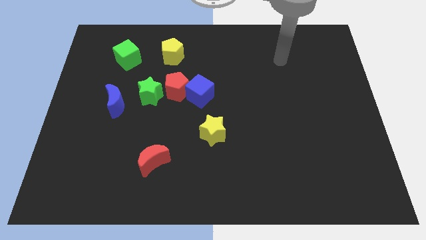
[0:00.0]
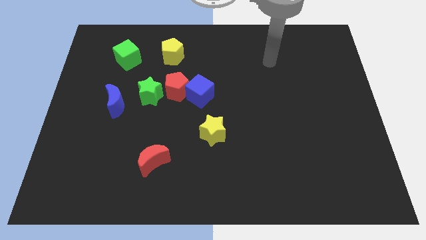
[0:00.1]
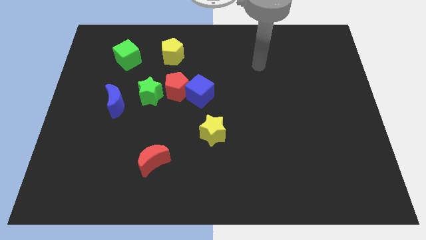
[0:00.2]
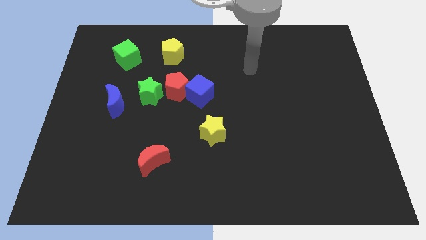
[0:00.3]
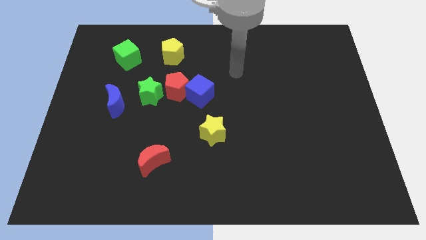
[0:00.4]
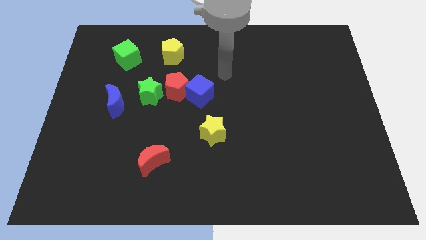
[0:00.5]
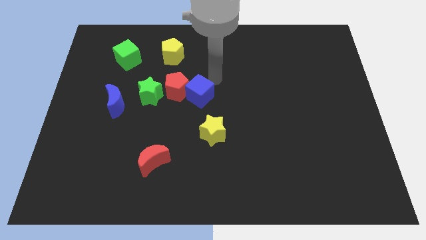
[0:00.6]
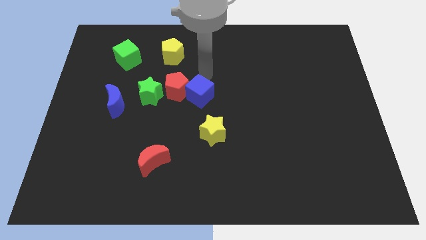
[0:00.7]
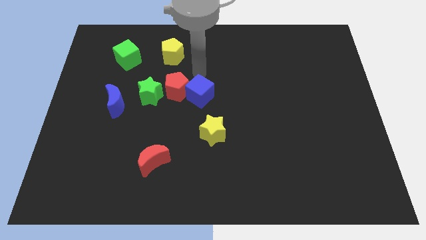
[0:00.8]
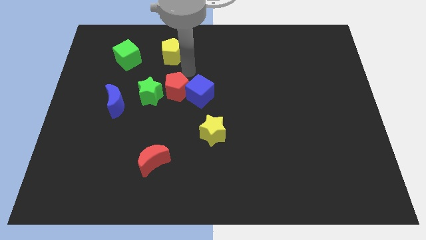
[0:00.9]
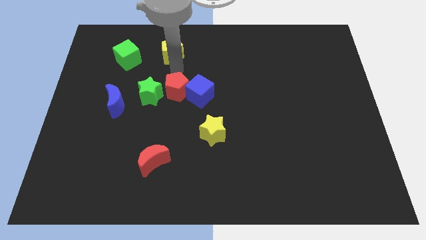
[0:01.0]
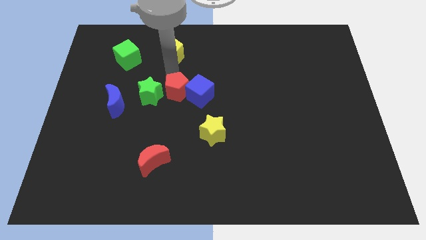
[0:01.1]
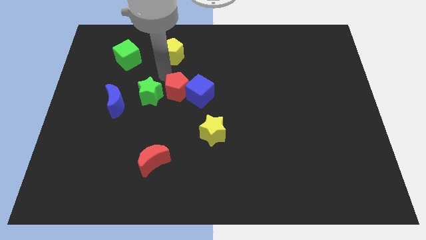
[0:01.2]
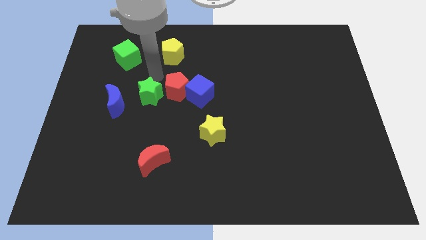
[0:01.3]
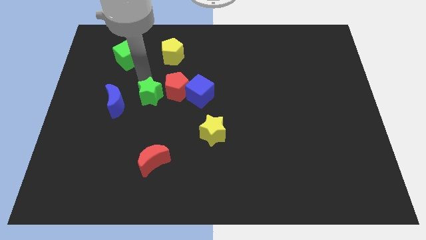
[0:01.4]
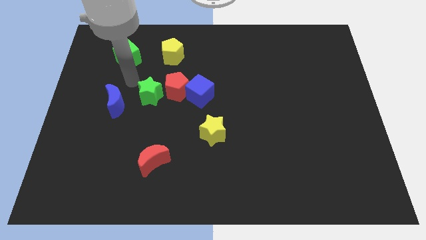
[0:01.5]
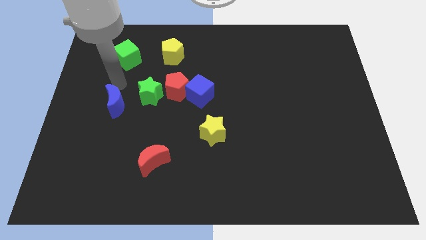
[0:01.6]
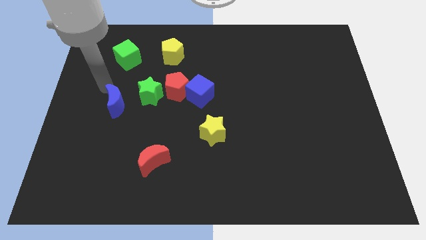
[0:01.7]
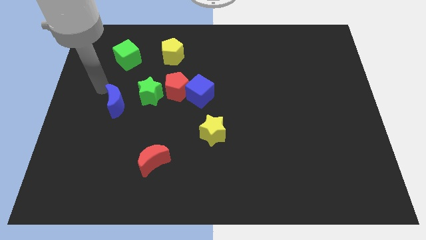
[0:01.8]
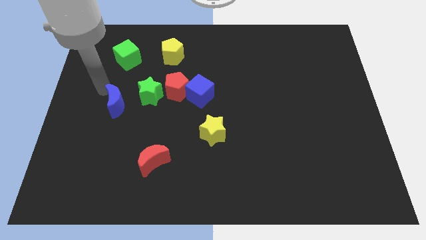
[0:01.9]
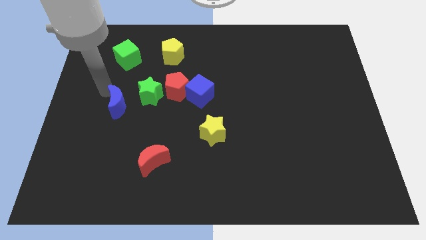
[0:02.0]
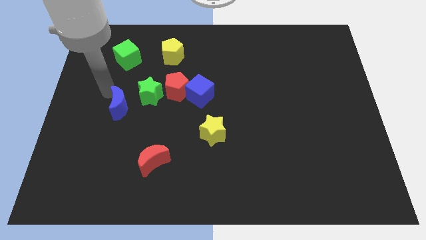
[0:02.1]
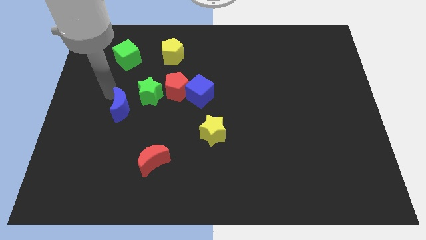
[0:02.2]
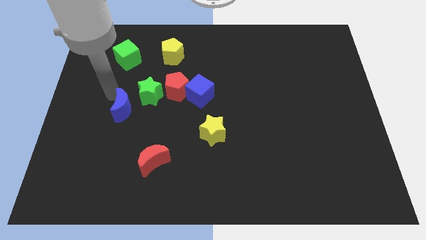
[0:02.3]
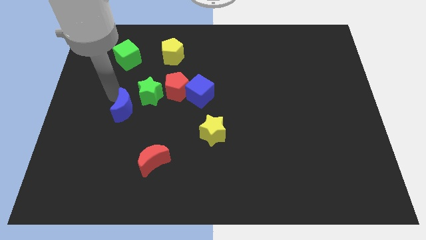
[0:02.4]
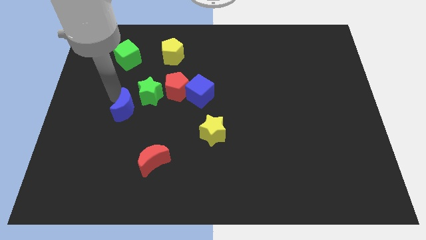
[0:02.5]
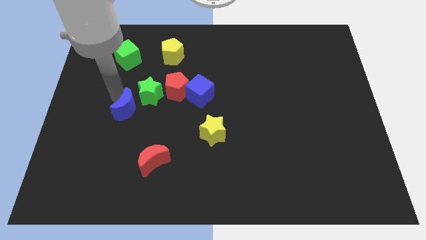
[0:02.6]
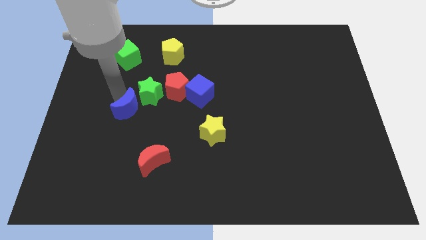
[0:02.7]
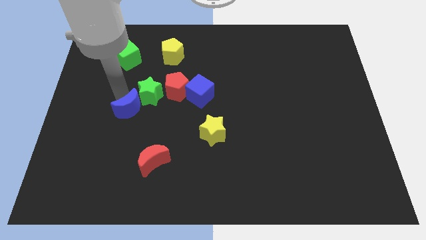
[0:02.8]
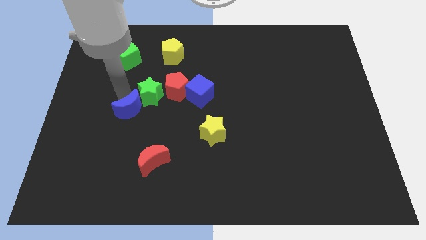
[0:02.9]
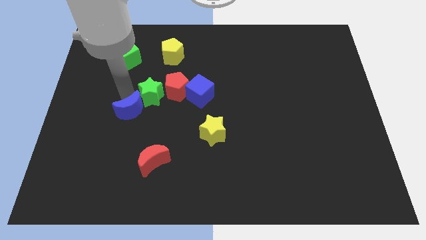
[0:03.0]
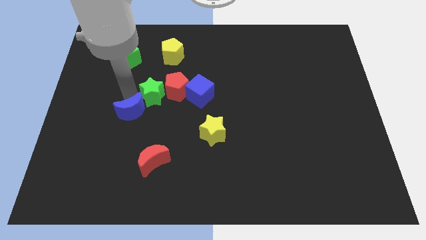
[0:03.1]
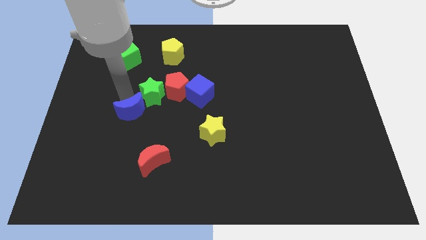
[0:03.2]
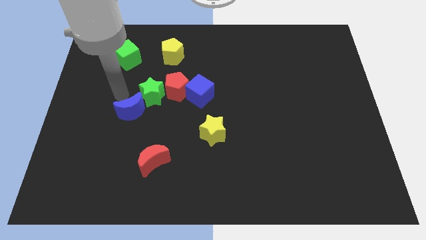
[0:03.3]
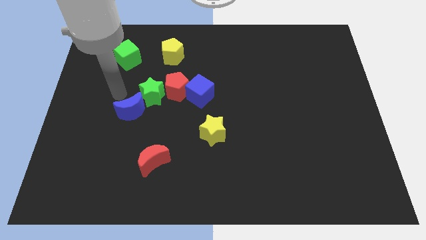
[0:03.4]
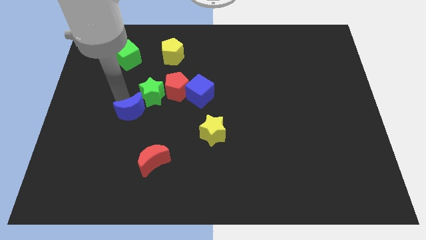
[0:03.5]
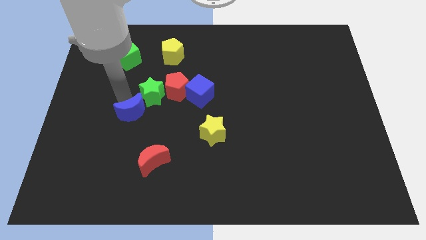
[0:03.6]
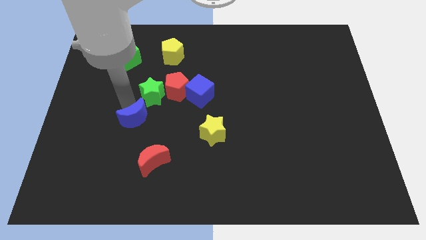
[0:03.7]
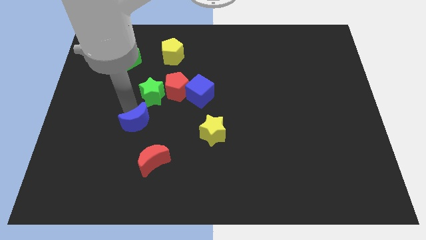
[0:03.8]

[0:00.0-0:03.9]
slightly push the blue moon downwards and to the right diagonally

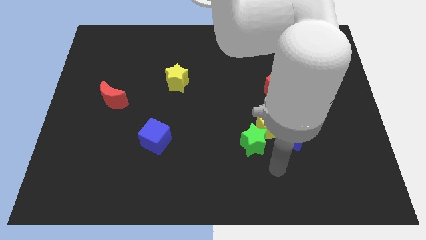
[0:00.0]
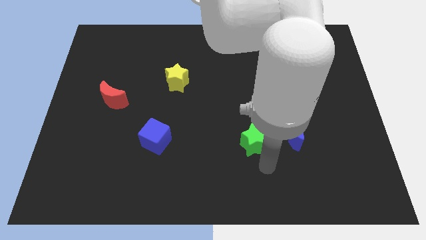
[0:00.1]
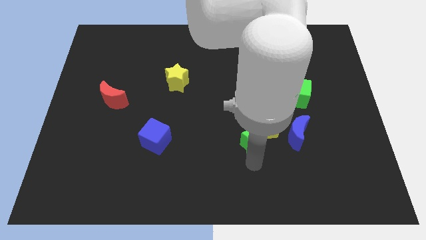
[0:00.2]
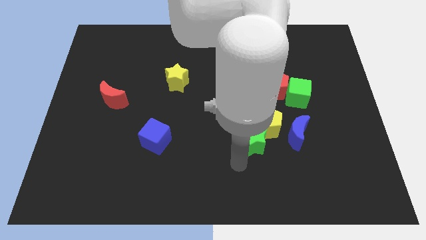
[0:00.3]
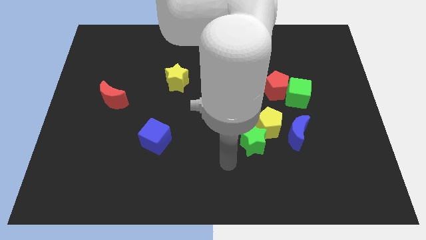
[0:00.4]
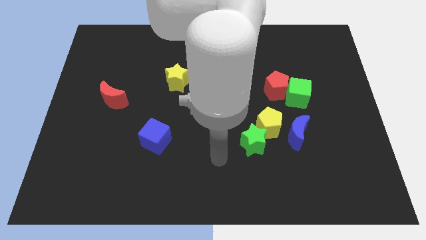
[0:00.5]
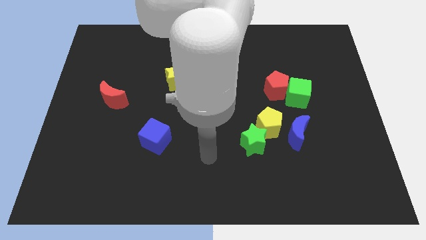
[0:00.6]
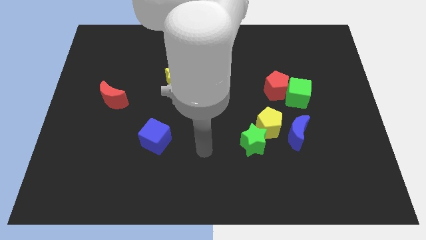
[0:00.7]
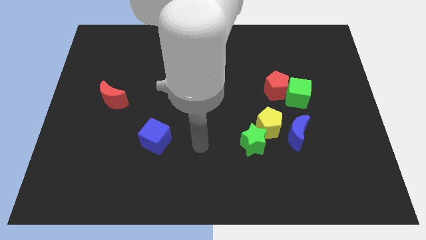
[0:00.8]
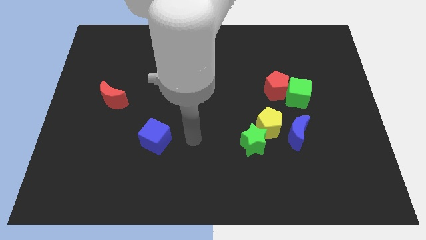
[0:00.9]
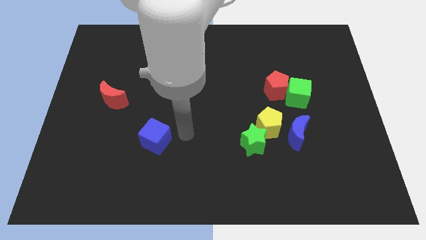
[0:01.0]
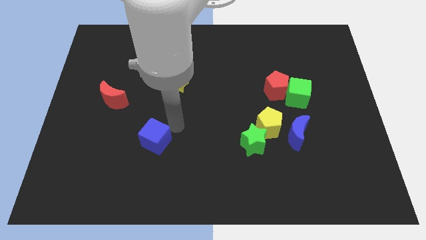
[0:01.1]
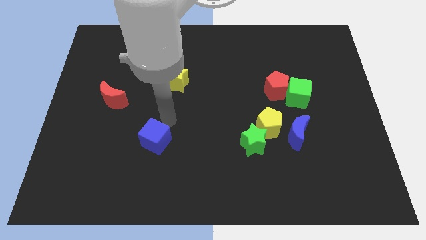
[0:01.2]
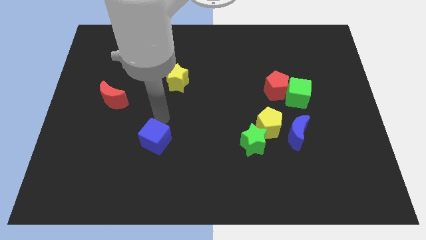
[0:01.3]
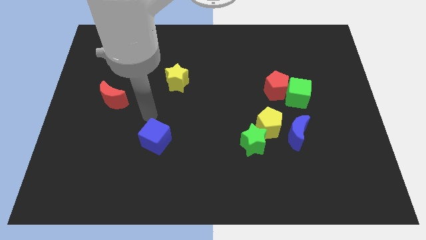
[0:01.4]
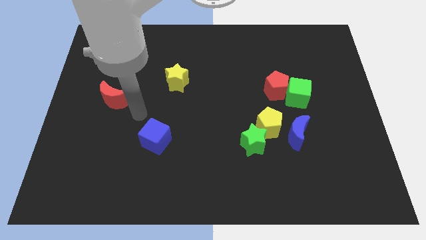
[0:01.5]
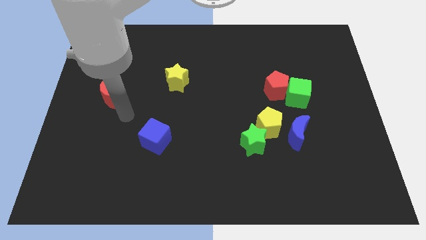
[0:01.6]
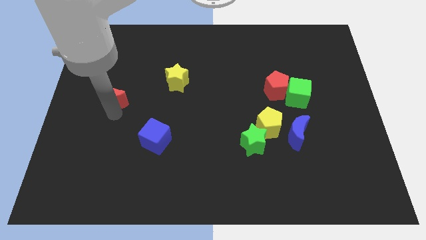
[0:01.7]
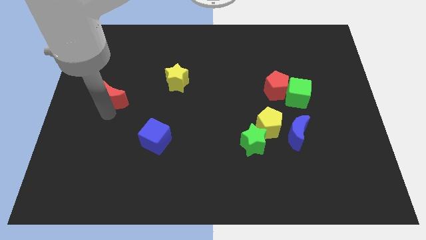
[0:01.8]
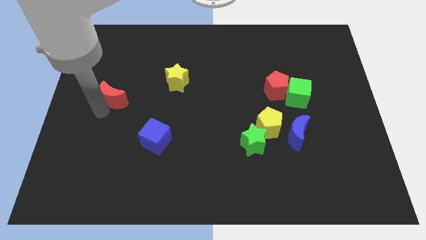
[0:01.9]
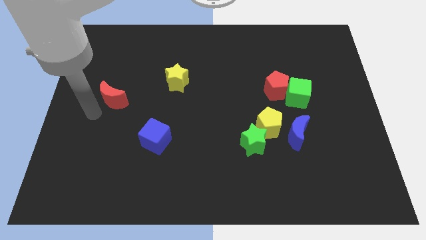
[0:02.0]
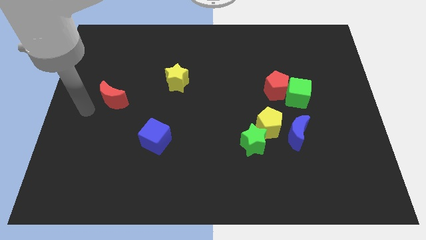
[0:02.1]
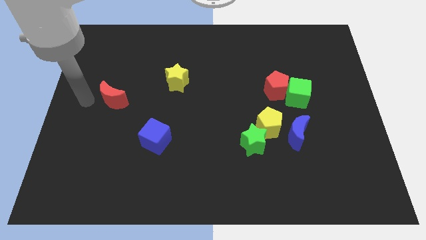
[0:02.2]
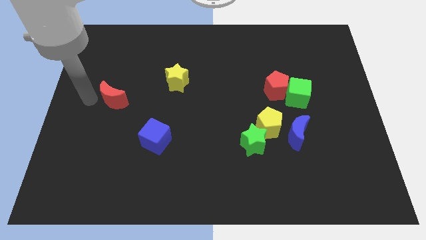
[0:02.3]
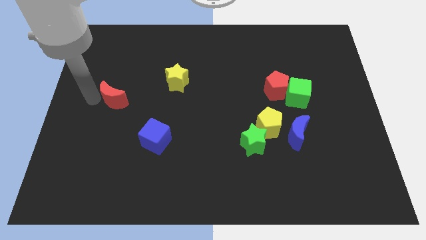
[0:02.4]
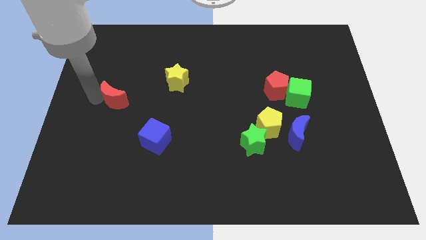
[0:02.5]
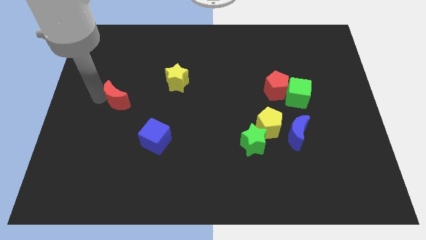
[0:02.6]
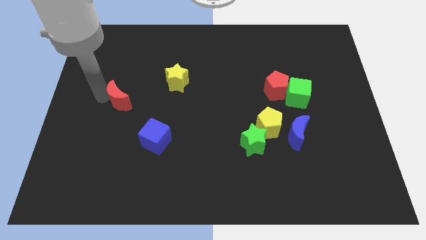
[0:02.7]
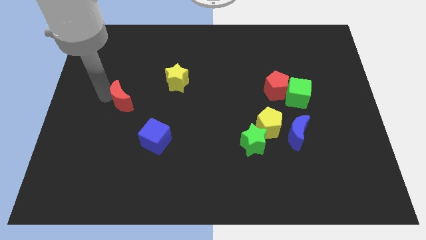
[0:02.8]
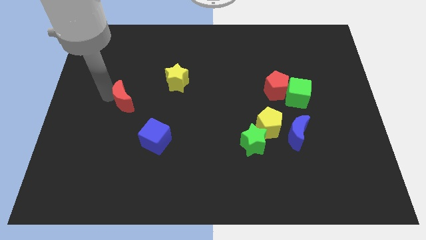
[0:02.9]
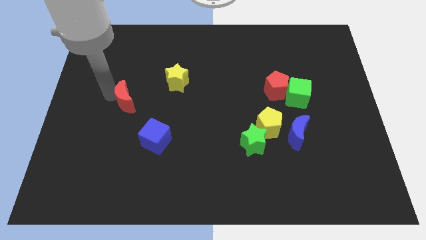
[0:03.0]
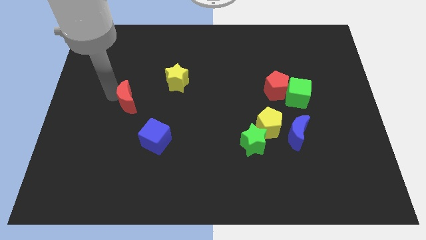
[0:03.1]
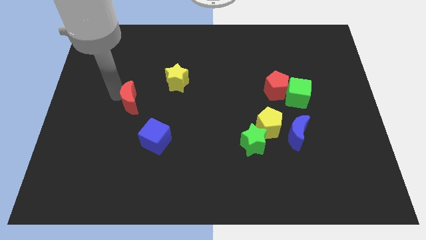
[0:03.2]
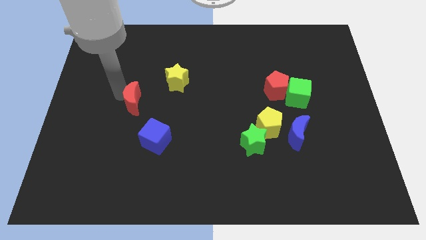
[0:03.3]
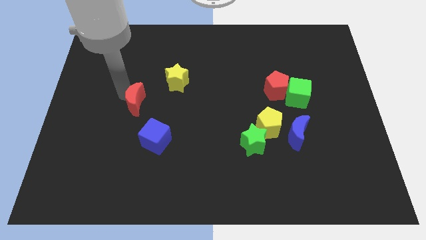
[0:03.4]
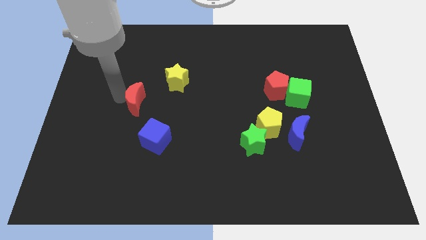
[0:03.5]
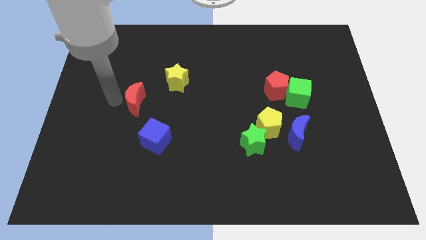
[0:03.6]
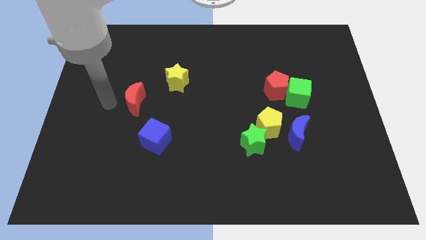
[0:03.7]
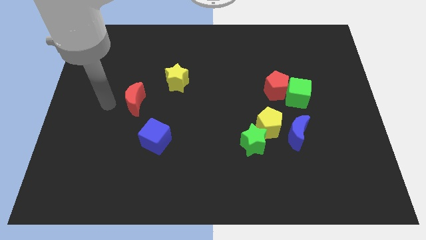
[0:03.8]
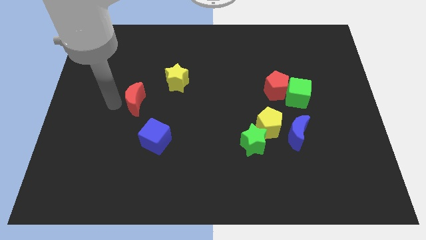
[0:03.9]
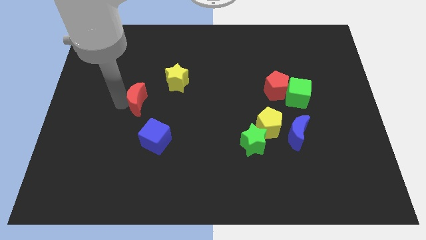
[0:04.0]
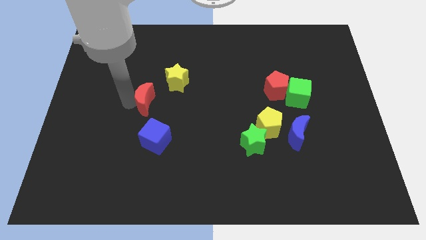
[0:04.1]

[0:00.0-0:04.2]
slightly move the red moon to the right

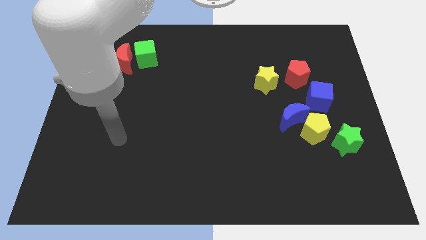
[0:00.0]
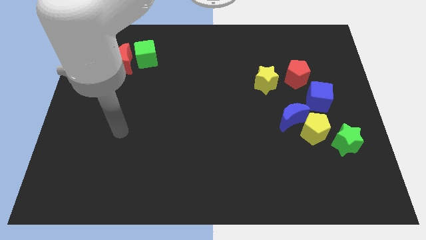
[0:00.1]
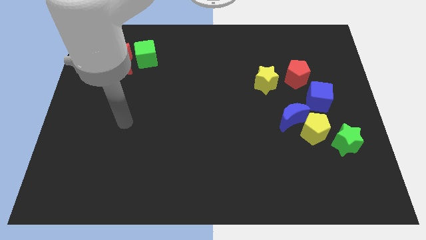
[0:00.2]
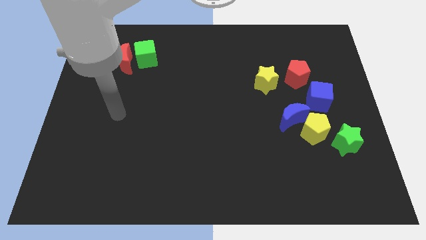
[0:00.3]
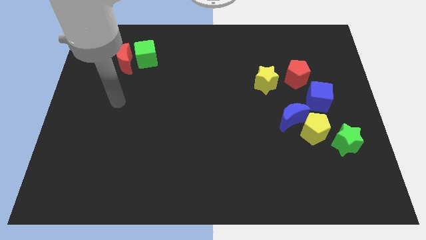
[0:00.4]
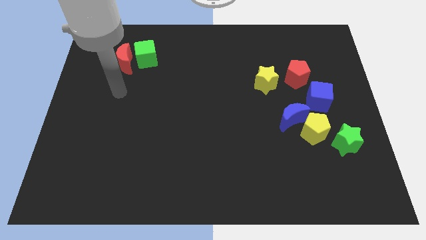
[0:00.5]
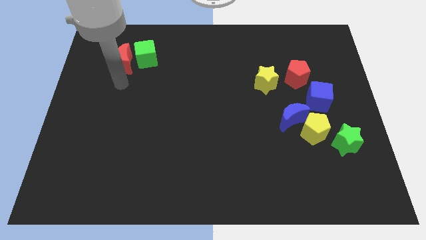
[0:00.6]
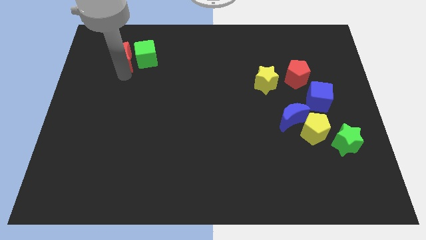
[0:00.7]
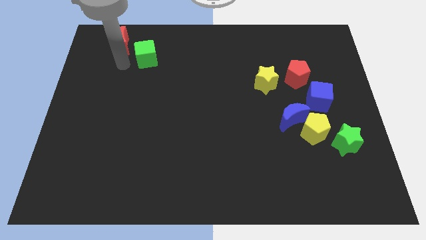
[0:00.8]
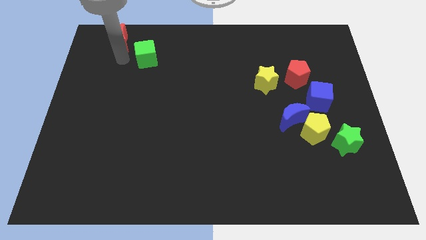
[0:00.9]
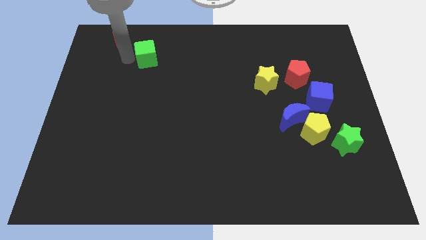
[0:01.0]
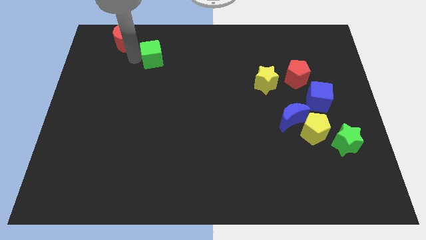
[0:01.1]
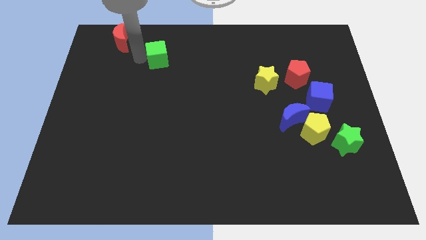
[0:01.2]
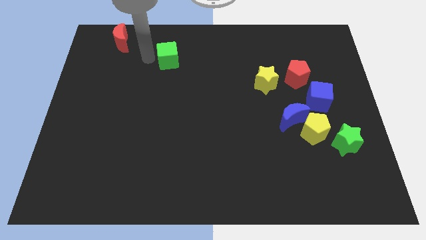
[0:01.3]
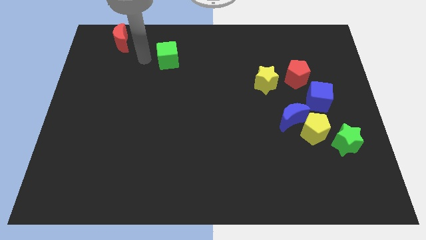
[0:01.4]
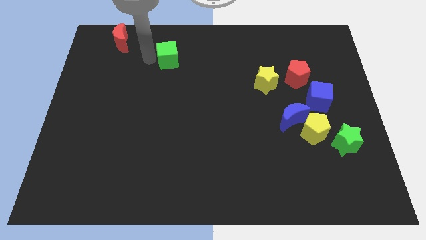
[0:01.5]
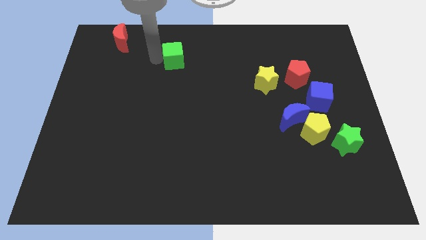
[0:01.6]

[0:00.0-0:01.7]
move the green cube somewhat right
